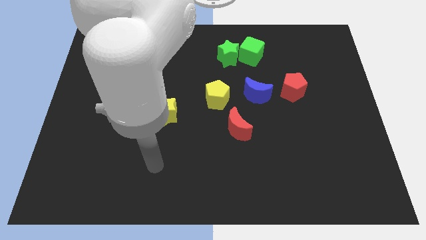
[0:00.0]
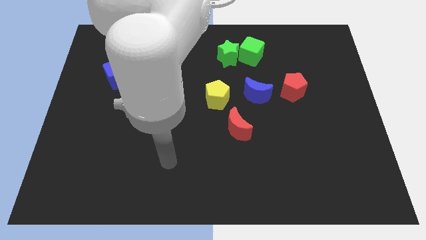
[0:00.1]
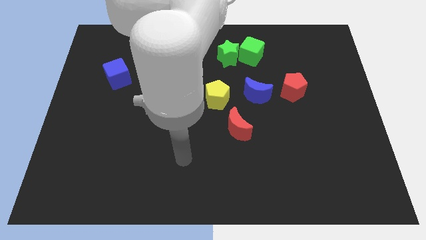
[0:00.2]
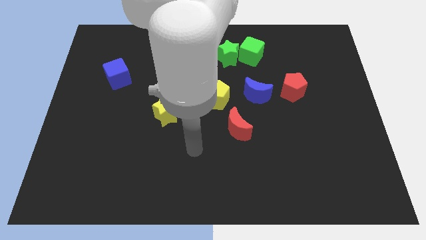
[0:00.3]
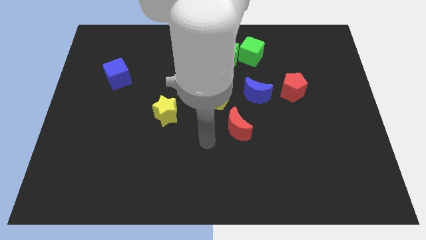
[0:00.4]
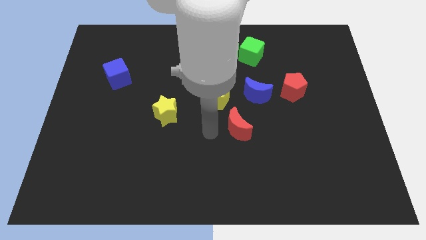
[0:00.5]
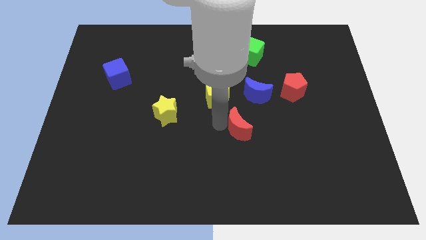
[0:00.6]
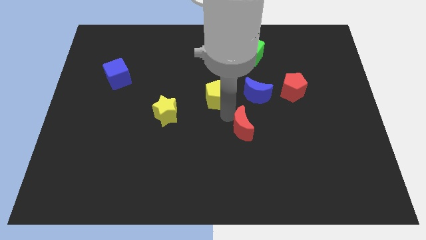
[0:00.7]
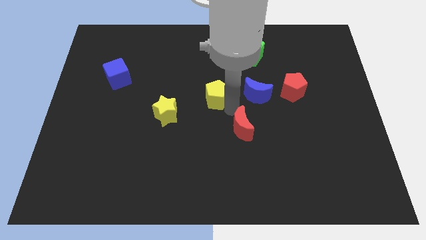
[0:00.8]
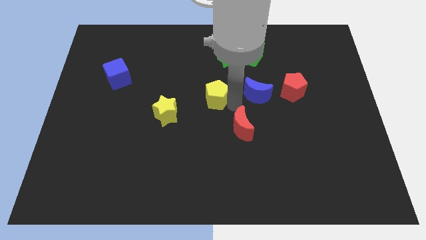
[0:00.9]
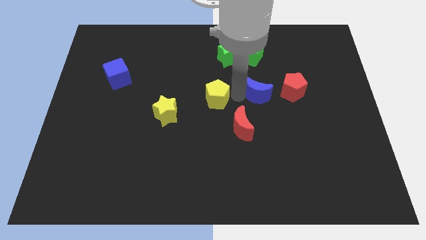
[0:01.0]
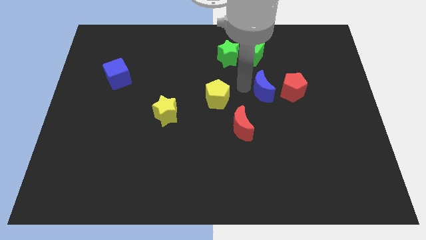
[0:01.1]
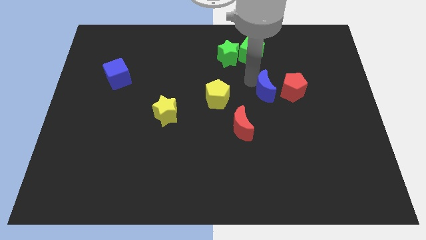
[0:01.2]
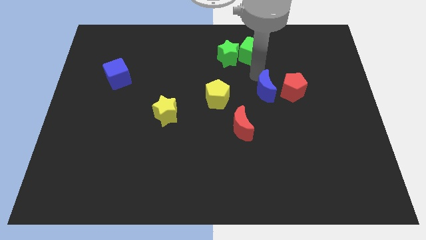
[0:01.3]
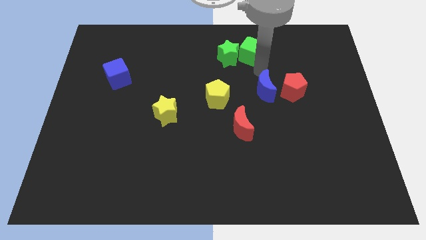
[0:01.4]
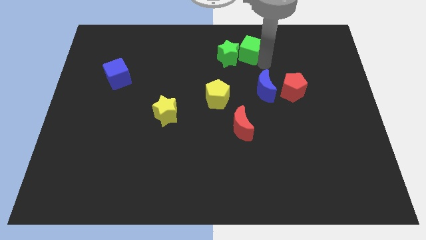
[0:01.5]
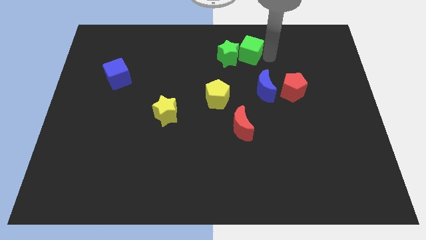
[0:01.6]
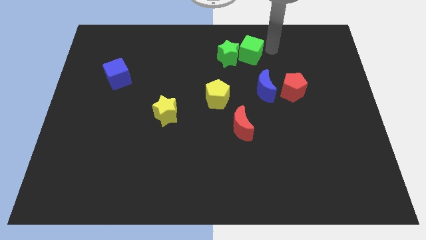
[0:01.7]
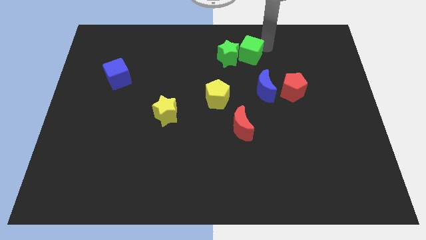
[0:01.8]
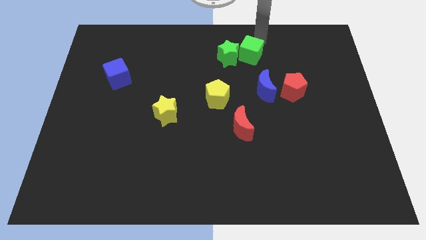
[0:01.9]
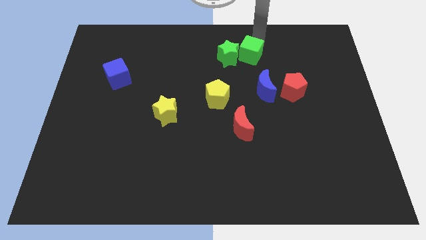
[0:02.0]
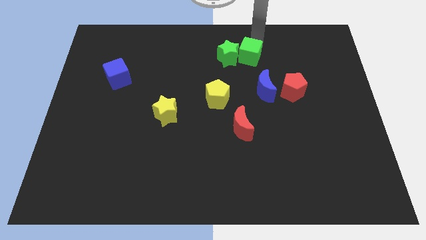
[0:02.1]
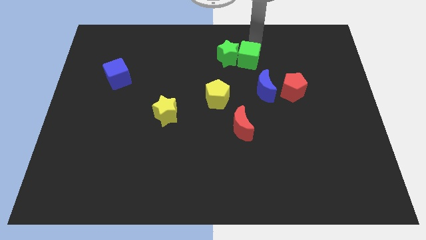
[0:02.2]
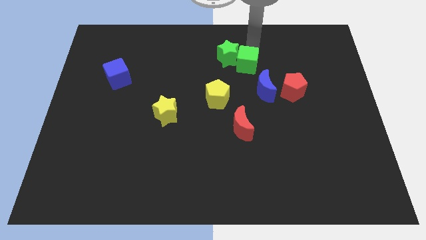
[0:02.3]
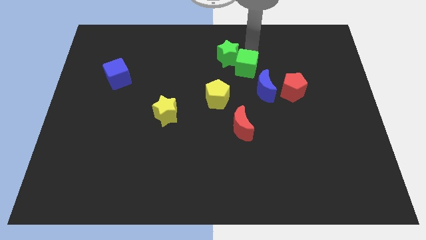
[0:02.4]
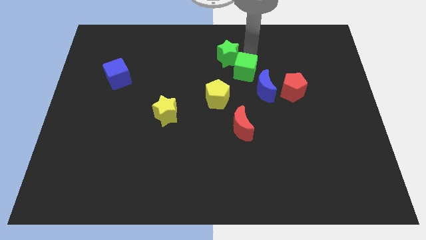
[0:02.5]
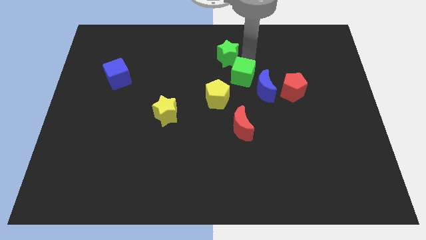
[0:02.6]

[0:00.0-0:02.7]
slightly push the green cube downwards

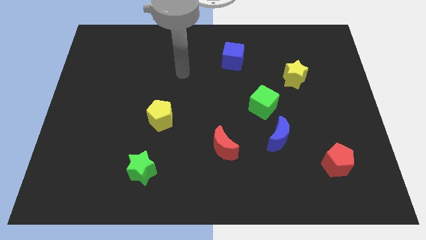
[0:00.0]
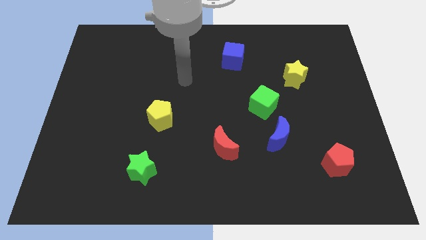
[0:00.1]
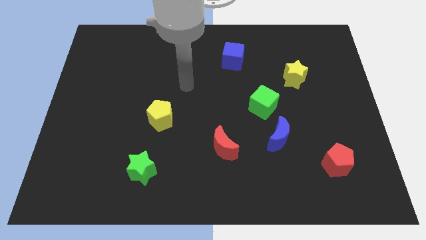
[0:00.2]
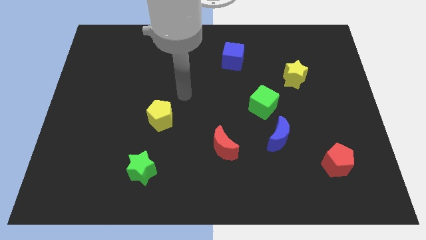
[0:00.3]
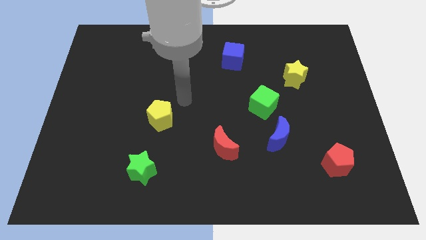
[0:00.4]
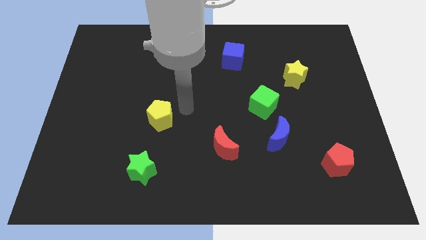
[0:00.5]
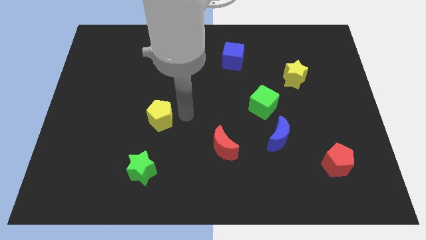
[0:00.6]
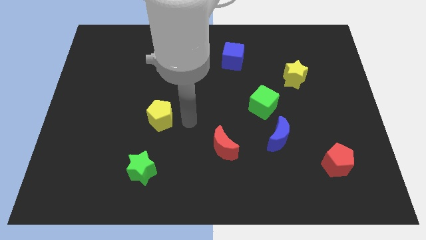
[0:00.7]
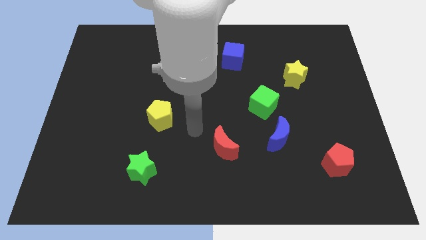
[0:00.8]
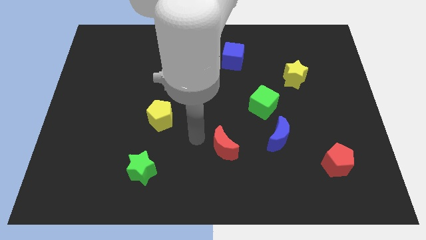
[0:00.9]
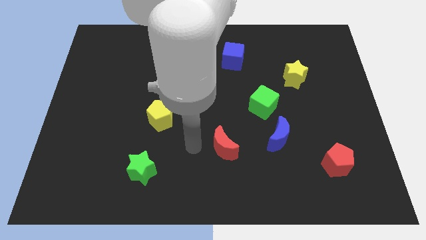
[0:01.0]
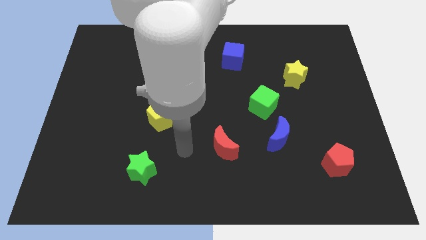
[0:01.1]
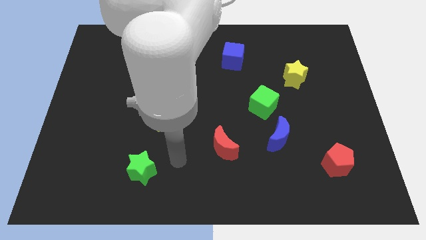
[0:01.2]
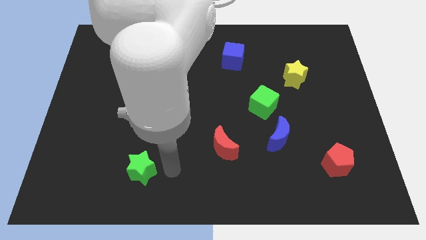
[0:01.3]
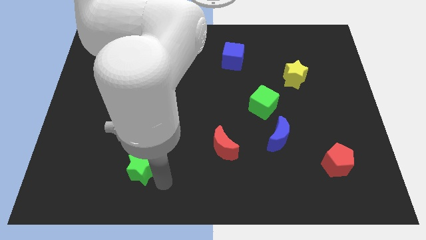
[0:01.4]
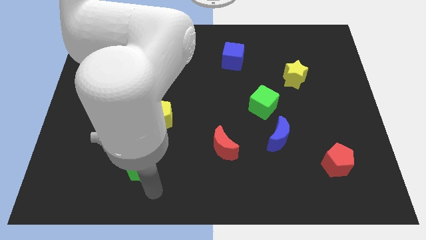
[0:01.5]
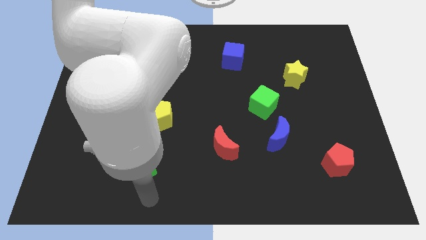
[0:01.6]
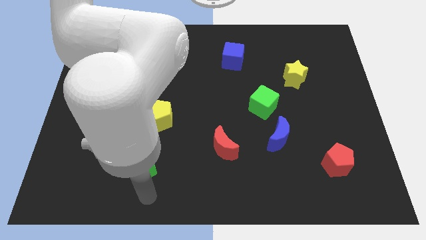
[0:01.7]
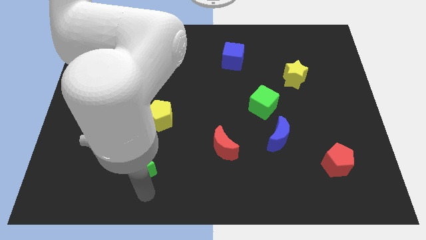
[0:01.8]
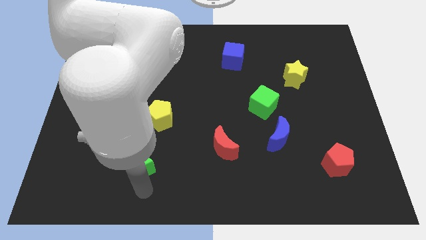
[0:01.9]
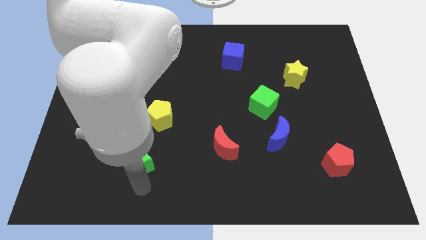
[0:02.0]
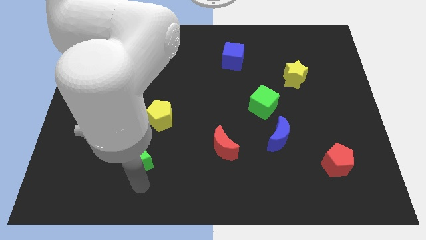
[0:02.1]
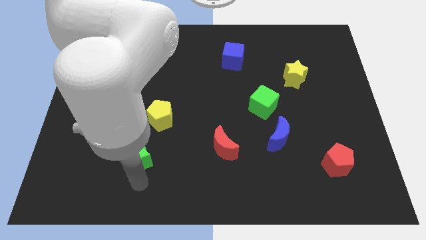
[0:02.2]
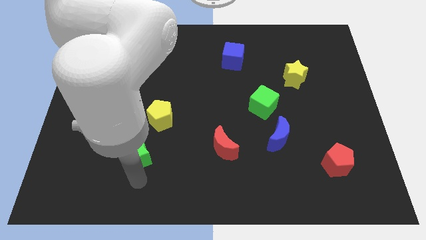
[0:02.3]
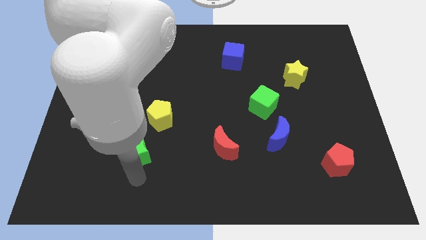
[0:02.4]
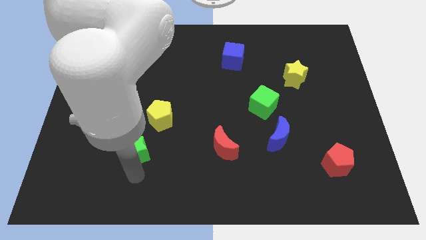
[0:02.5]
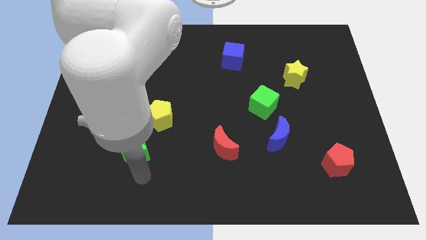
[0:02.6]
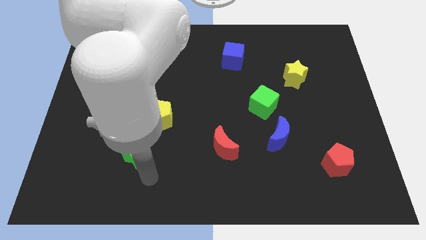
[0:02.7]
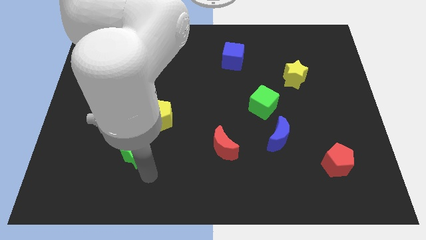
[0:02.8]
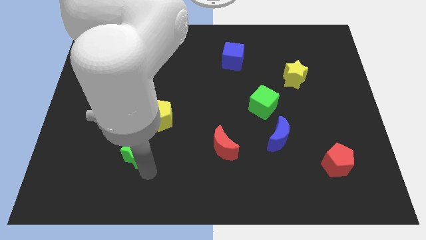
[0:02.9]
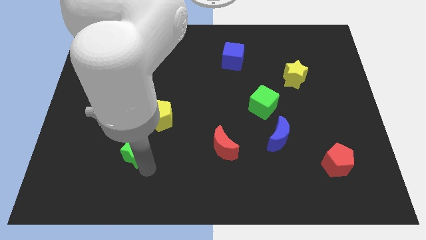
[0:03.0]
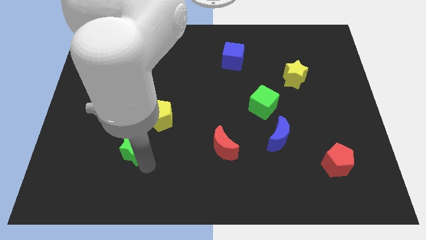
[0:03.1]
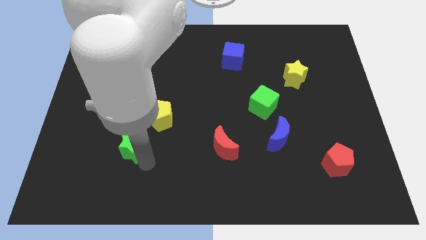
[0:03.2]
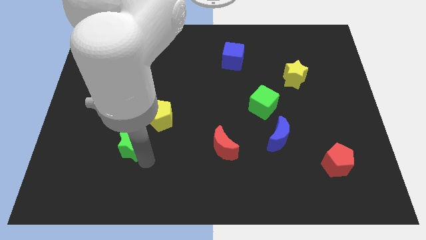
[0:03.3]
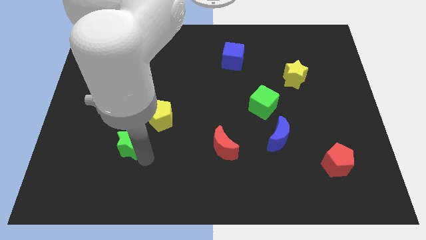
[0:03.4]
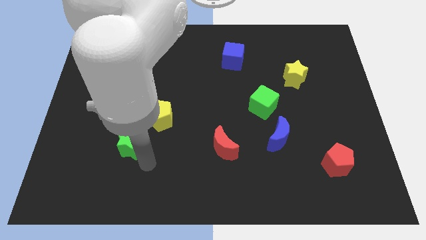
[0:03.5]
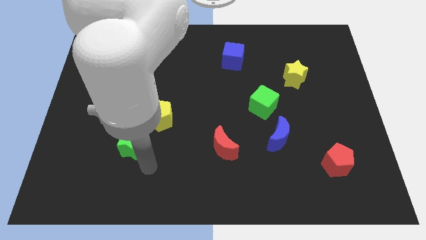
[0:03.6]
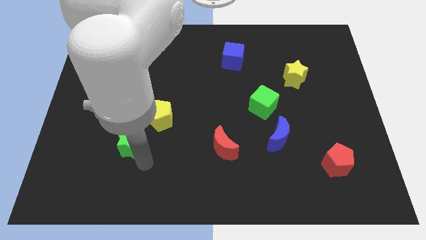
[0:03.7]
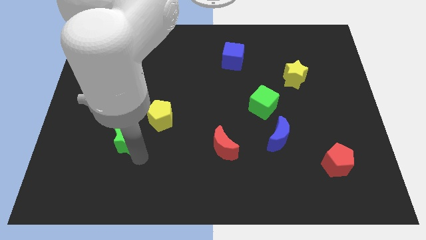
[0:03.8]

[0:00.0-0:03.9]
slightly move the green star upwards and left

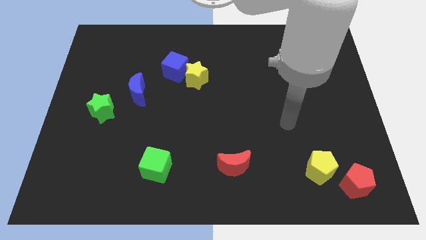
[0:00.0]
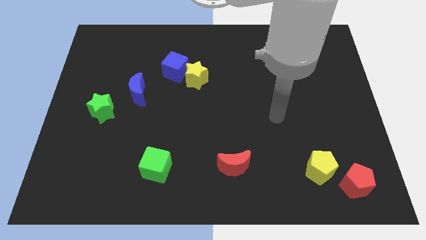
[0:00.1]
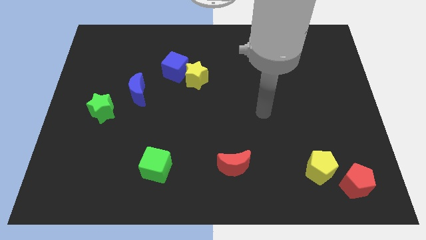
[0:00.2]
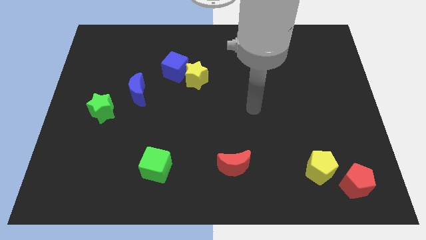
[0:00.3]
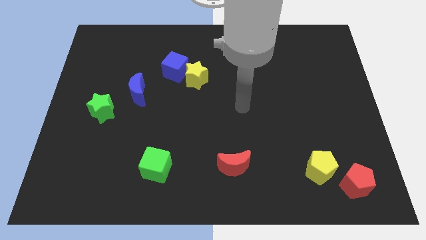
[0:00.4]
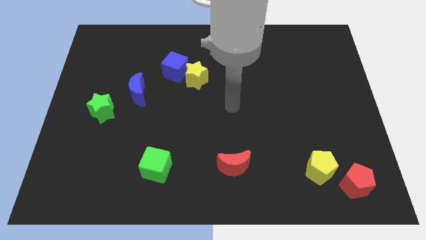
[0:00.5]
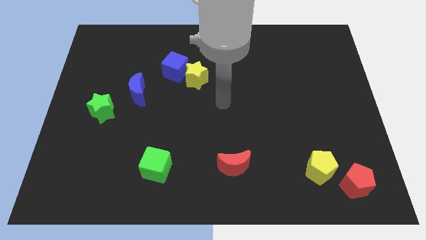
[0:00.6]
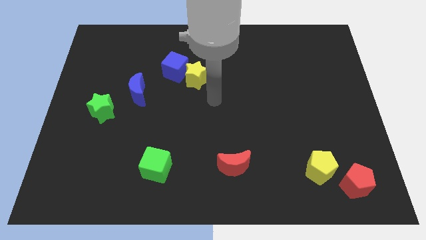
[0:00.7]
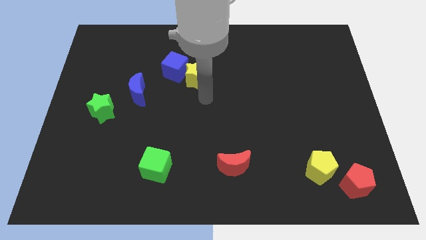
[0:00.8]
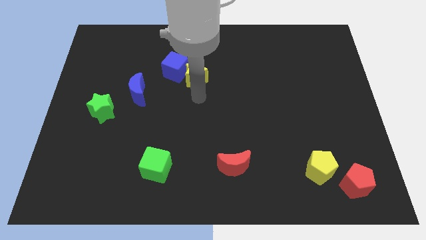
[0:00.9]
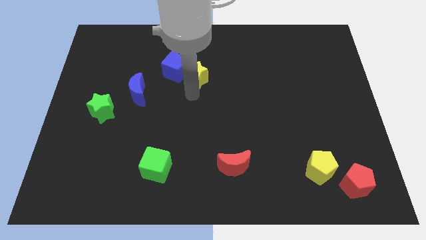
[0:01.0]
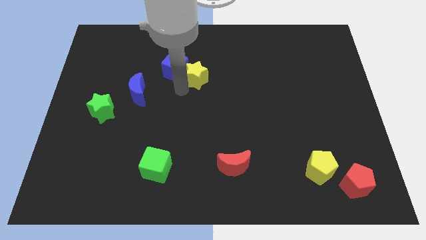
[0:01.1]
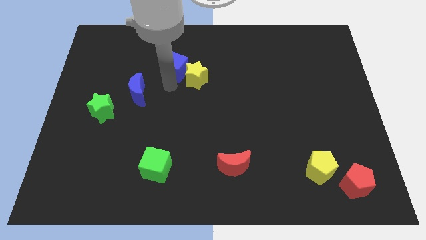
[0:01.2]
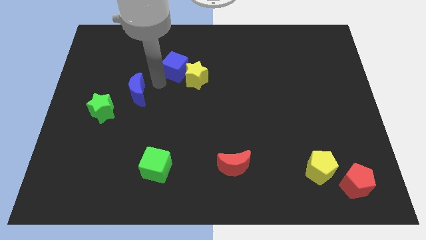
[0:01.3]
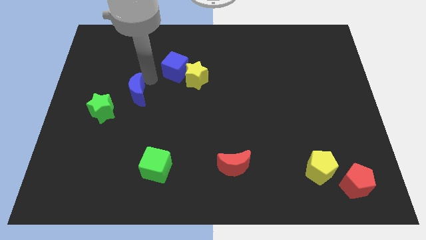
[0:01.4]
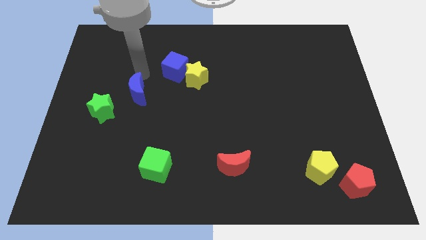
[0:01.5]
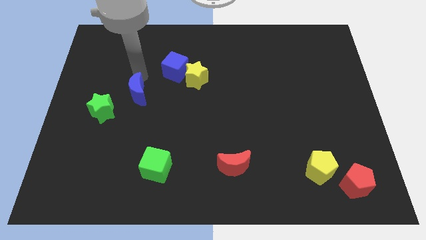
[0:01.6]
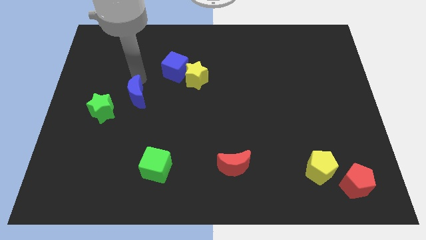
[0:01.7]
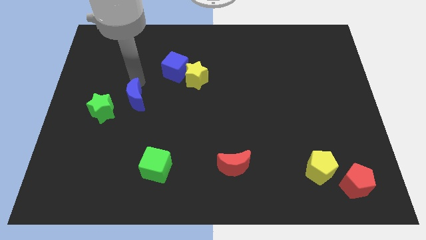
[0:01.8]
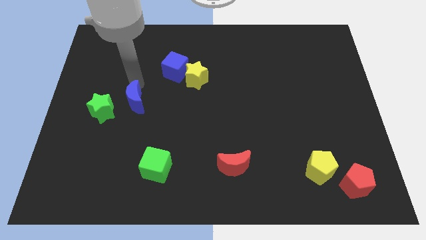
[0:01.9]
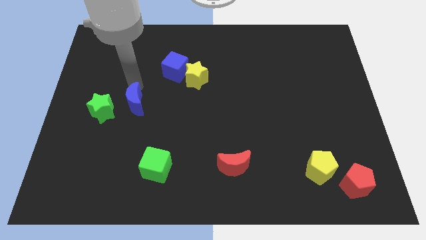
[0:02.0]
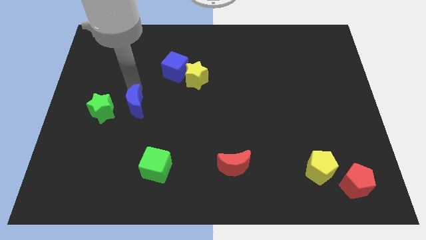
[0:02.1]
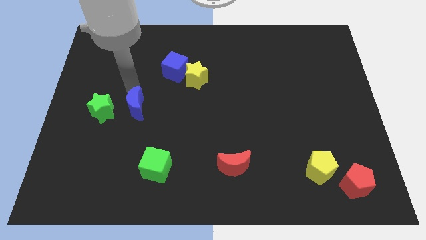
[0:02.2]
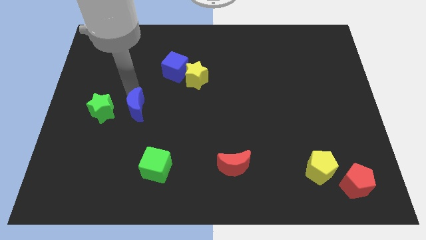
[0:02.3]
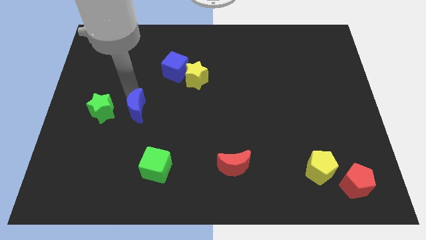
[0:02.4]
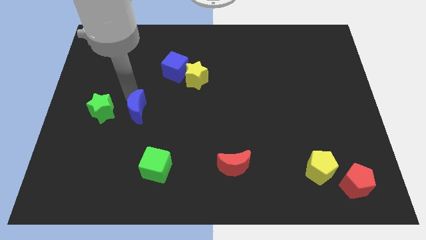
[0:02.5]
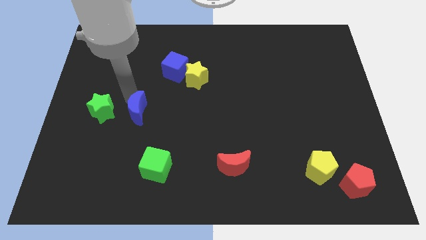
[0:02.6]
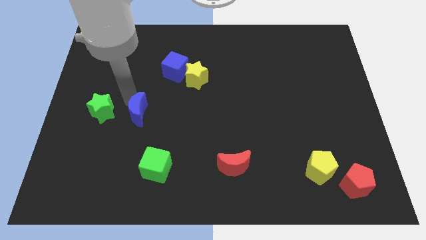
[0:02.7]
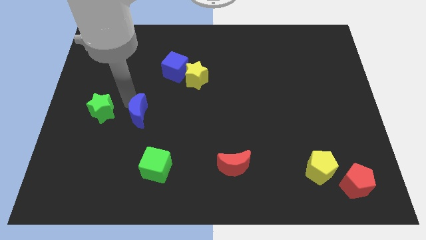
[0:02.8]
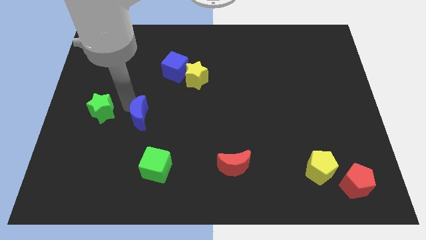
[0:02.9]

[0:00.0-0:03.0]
slide the blue moon down a little
